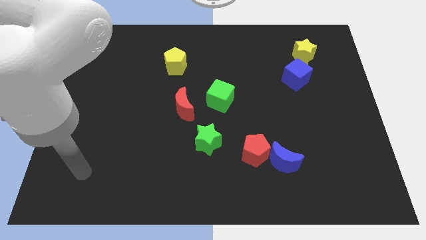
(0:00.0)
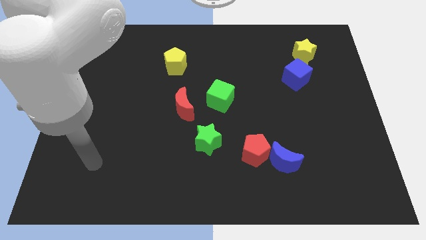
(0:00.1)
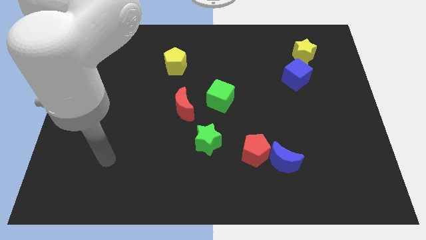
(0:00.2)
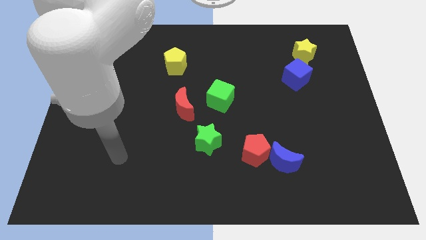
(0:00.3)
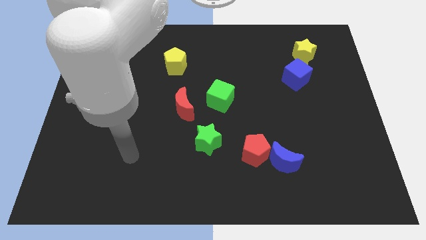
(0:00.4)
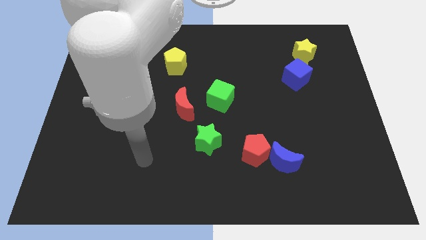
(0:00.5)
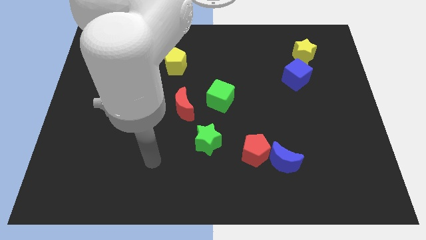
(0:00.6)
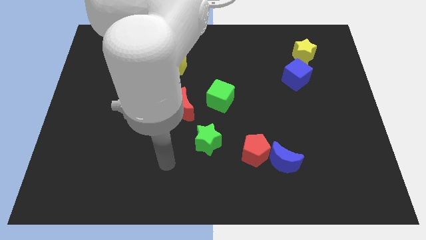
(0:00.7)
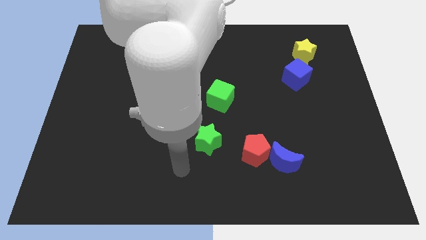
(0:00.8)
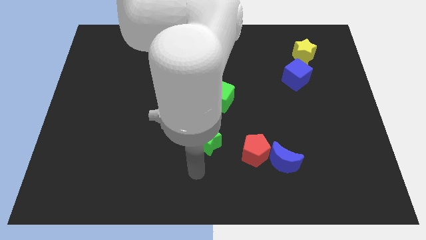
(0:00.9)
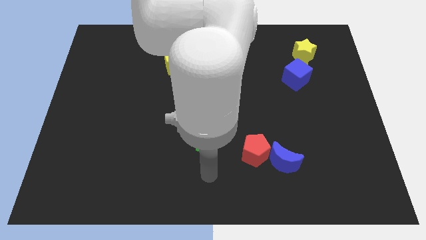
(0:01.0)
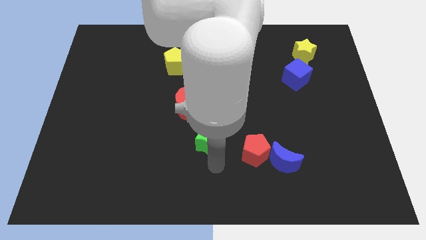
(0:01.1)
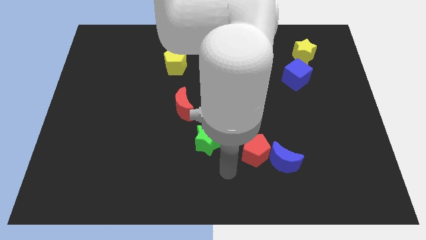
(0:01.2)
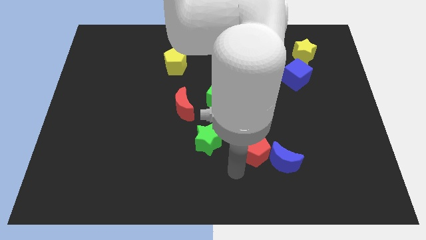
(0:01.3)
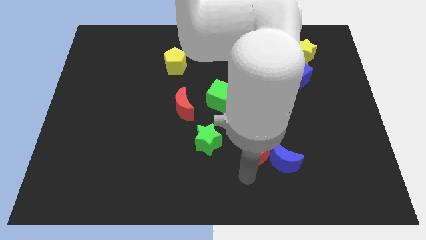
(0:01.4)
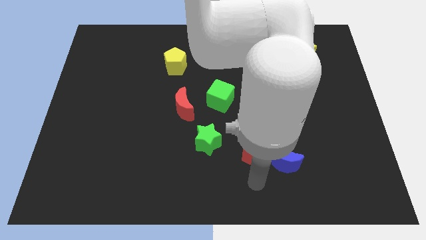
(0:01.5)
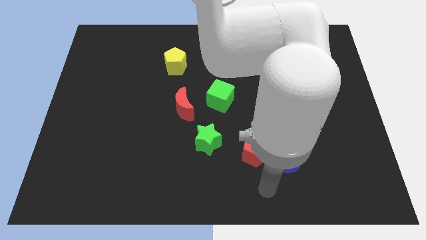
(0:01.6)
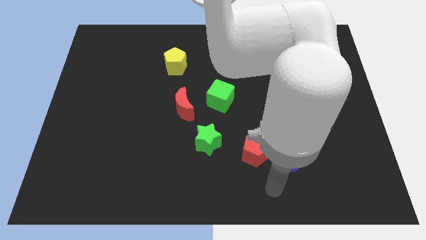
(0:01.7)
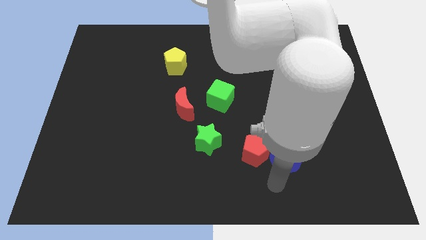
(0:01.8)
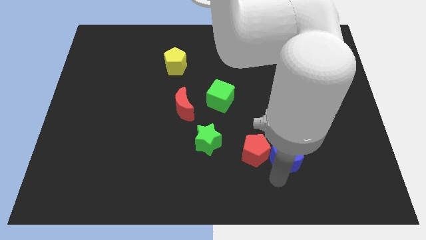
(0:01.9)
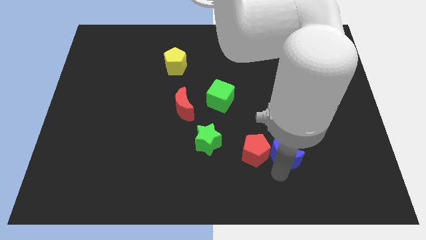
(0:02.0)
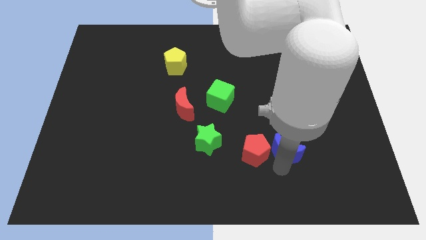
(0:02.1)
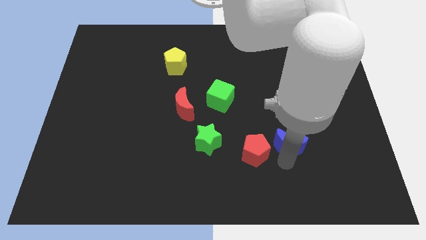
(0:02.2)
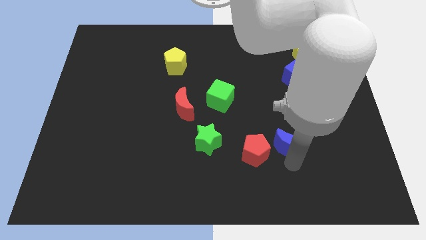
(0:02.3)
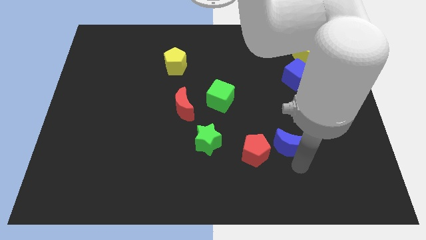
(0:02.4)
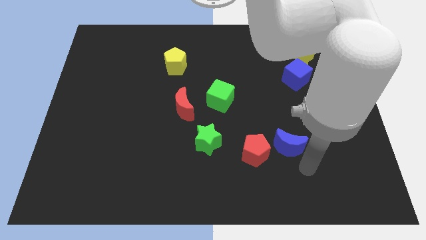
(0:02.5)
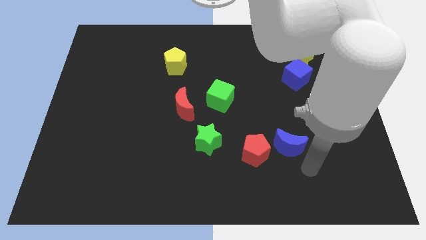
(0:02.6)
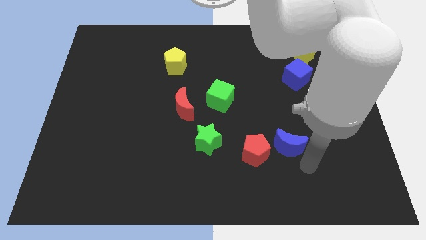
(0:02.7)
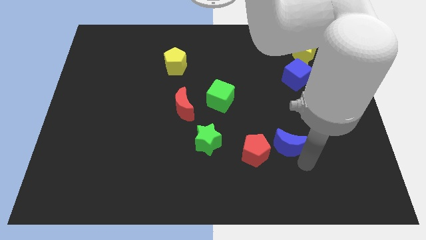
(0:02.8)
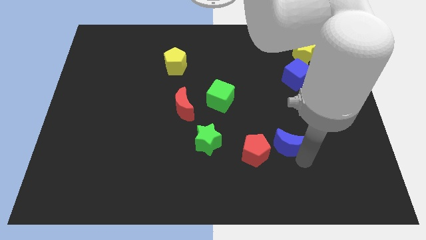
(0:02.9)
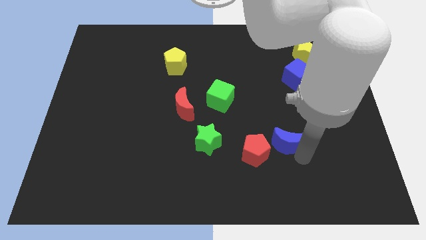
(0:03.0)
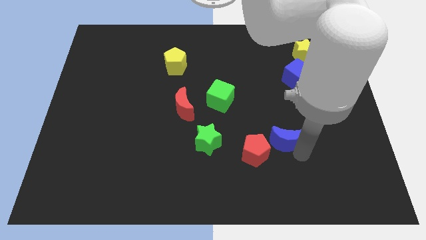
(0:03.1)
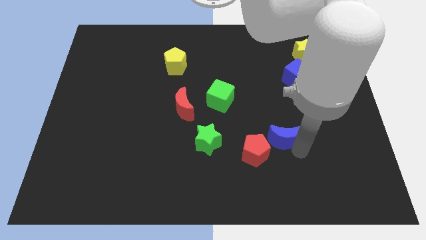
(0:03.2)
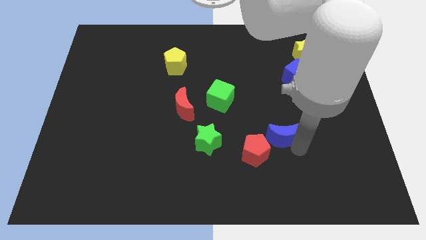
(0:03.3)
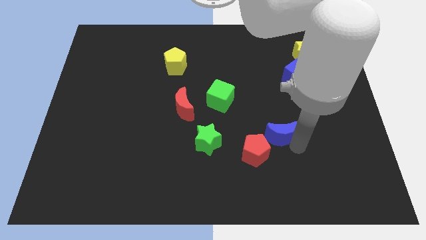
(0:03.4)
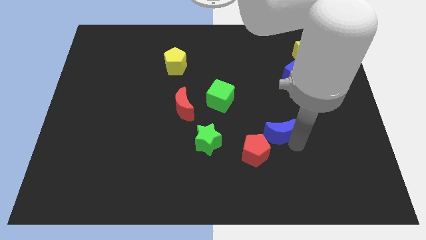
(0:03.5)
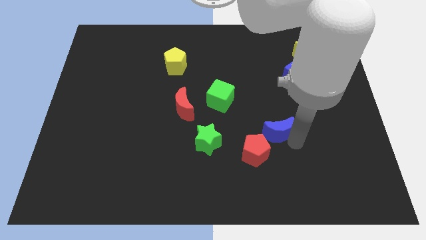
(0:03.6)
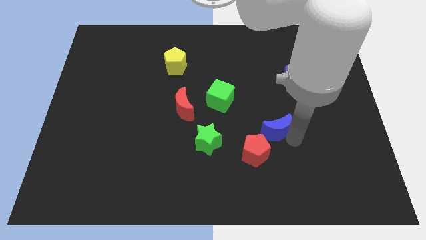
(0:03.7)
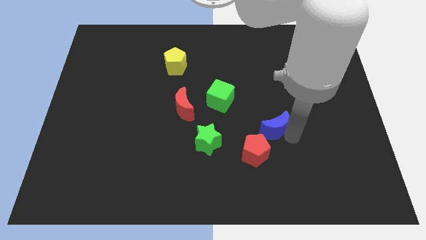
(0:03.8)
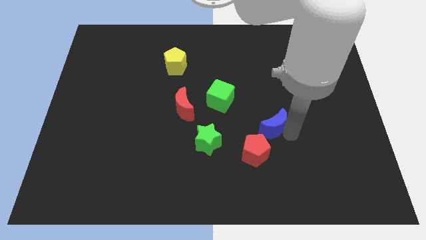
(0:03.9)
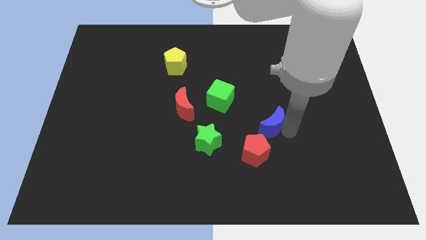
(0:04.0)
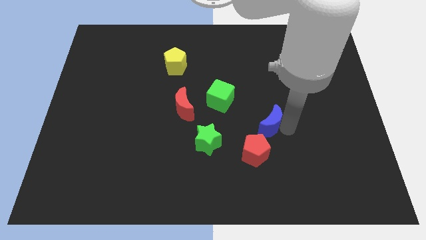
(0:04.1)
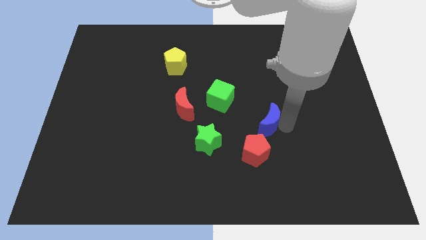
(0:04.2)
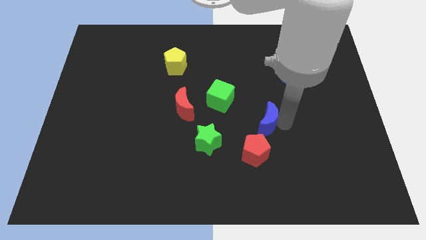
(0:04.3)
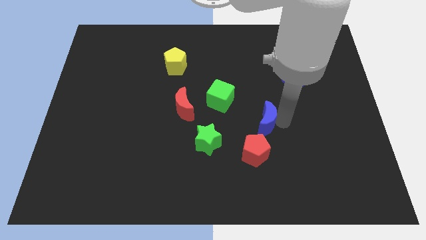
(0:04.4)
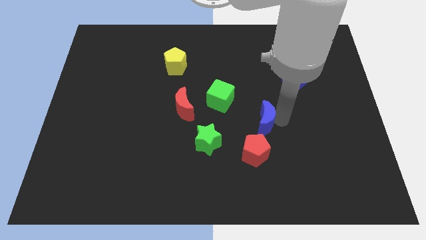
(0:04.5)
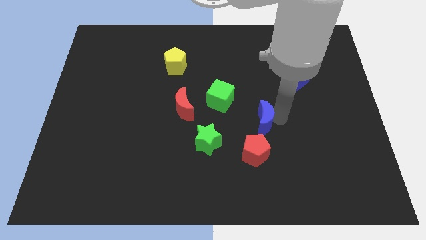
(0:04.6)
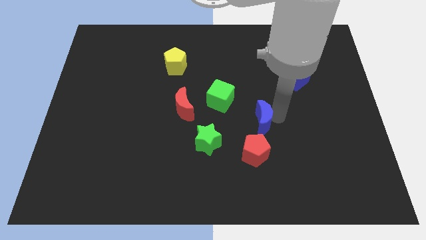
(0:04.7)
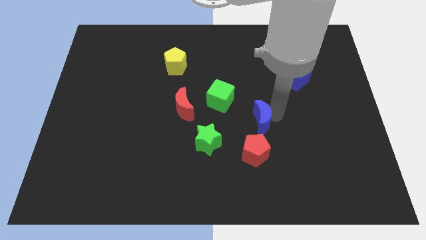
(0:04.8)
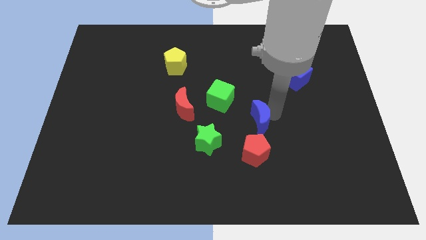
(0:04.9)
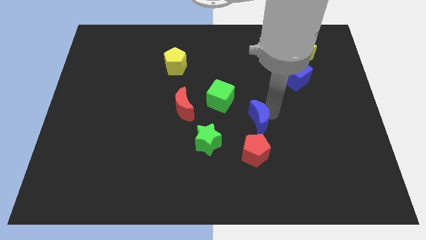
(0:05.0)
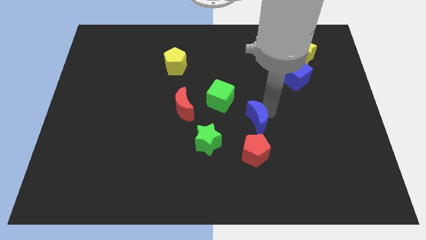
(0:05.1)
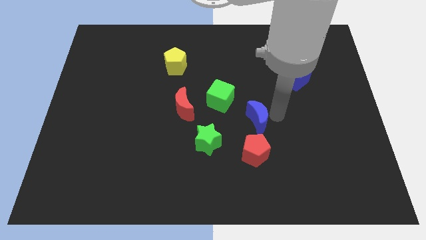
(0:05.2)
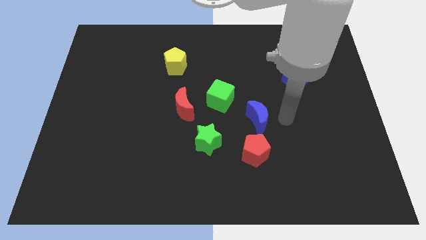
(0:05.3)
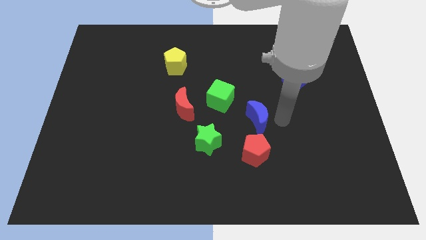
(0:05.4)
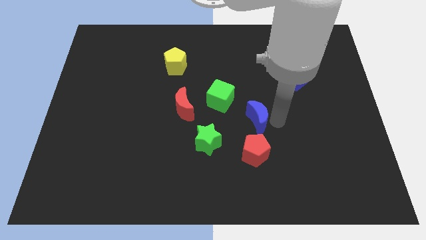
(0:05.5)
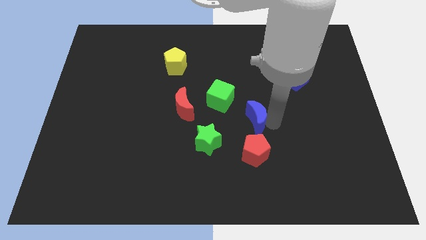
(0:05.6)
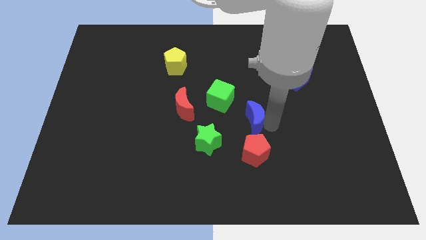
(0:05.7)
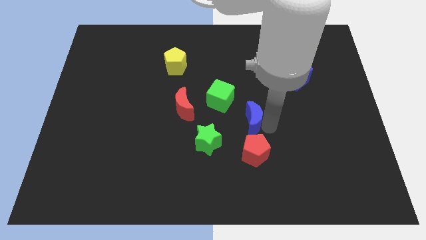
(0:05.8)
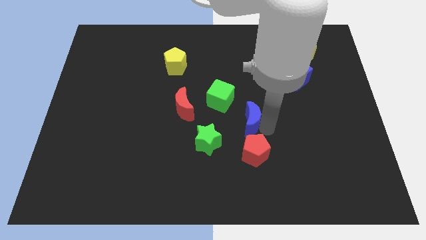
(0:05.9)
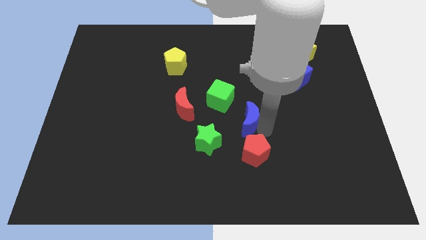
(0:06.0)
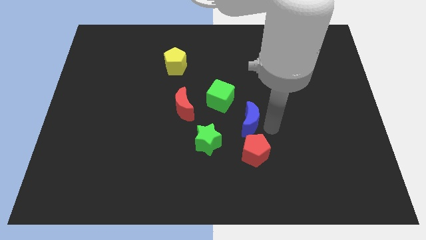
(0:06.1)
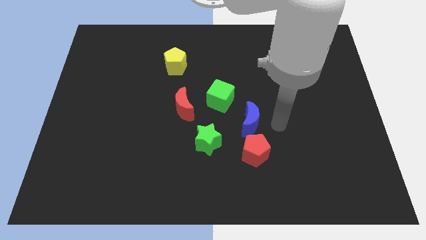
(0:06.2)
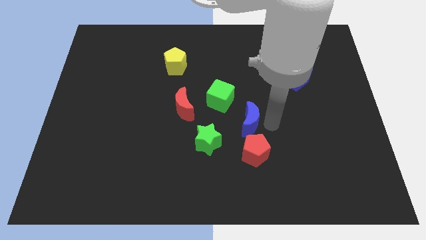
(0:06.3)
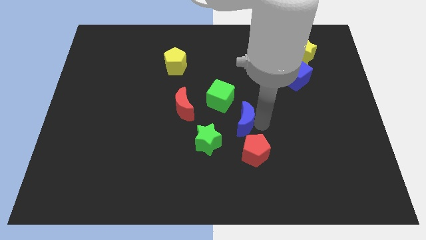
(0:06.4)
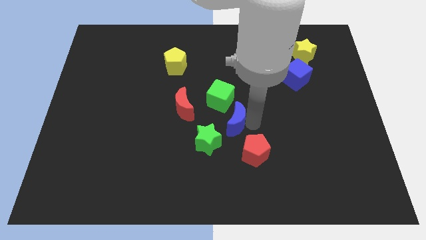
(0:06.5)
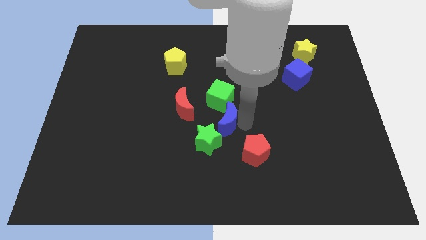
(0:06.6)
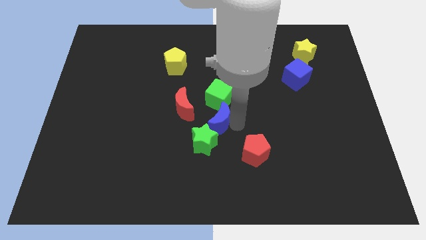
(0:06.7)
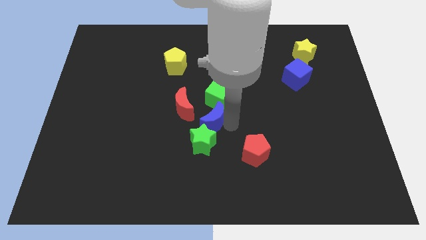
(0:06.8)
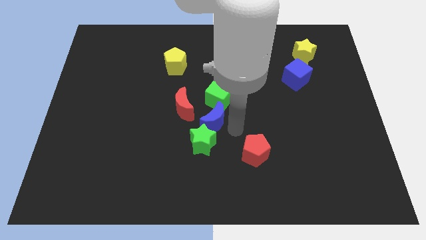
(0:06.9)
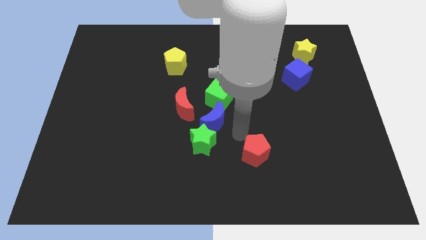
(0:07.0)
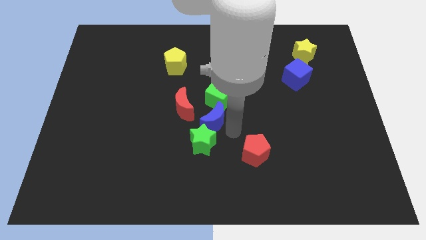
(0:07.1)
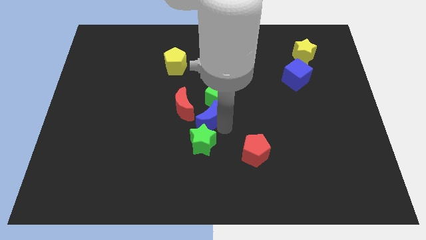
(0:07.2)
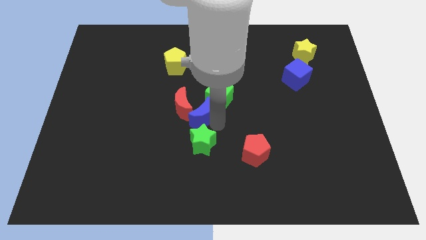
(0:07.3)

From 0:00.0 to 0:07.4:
slide the blue moon towards the red moon

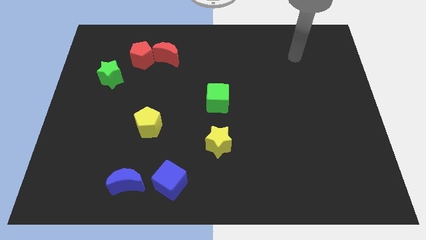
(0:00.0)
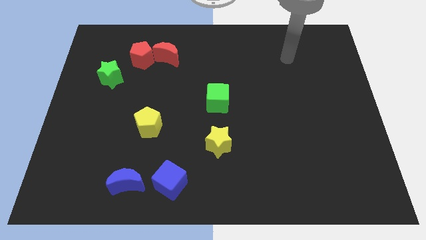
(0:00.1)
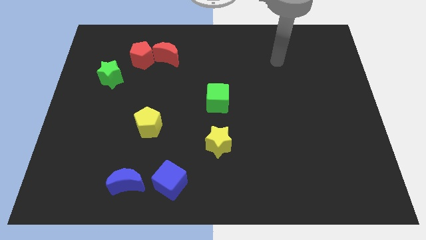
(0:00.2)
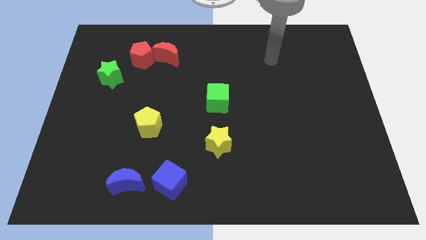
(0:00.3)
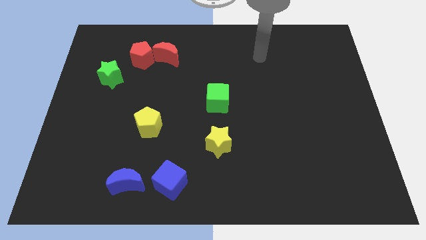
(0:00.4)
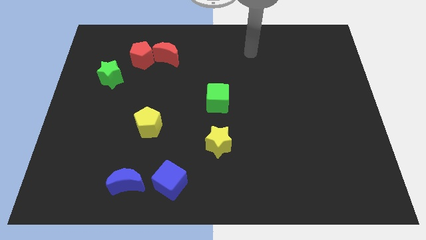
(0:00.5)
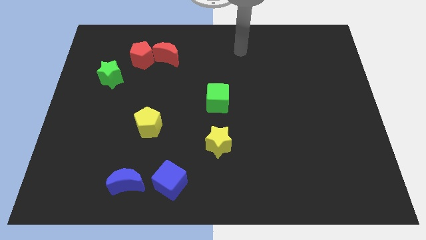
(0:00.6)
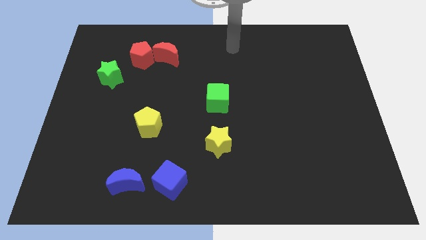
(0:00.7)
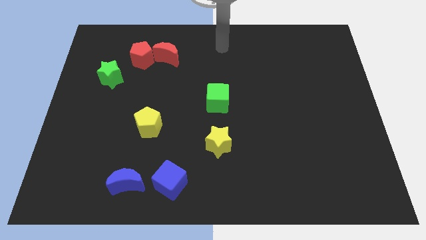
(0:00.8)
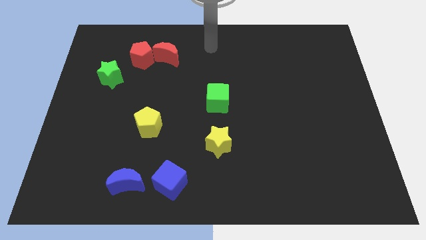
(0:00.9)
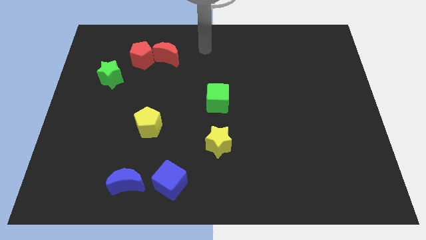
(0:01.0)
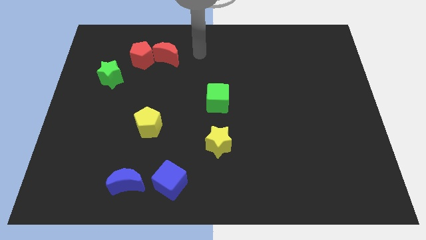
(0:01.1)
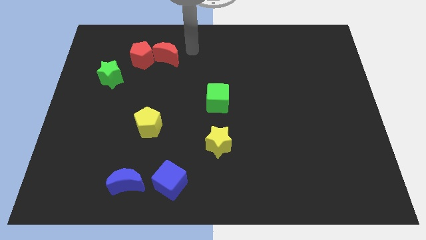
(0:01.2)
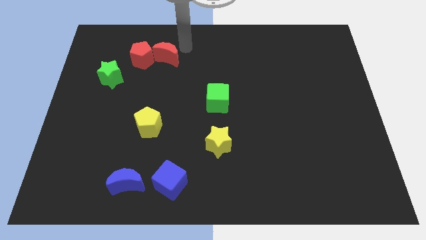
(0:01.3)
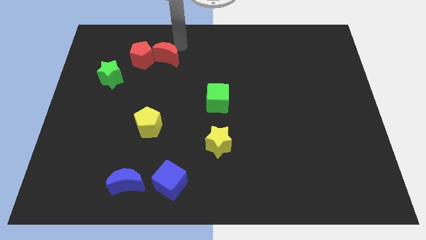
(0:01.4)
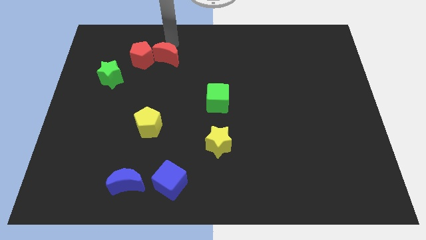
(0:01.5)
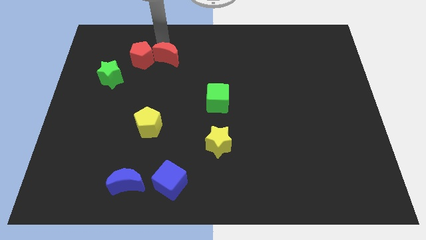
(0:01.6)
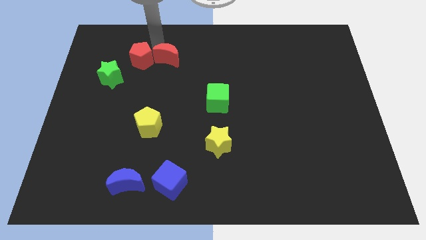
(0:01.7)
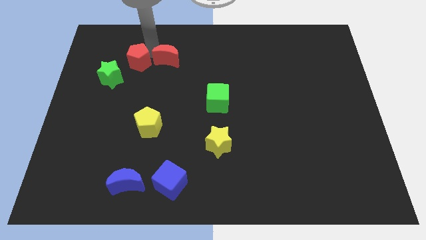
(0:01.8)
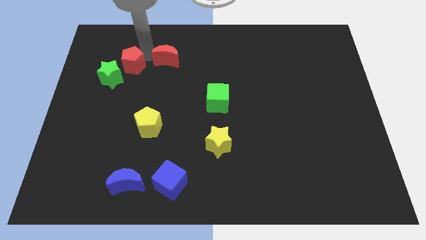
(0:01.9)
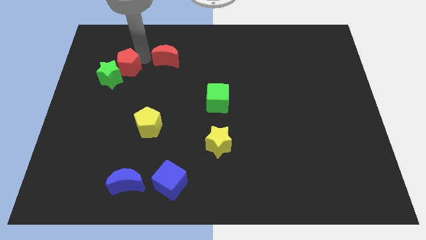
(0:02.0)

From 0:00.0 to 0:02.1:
slide the red pentagon to the green star
